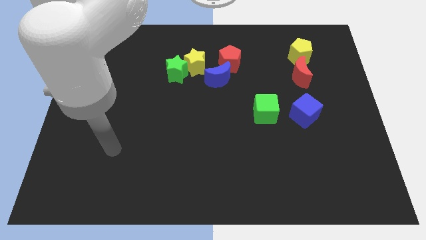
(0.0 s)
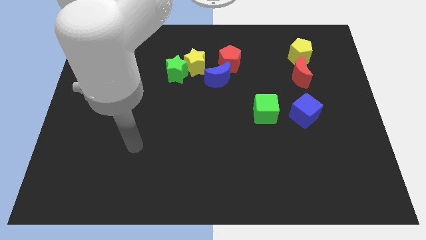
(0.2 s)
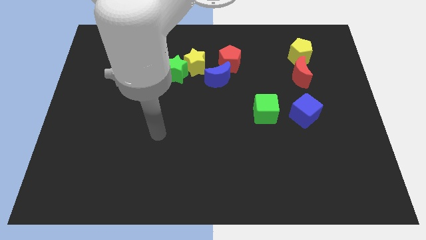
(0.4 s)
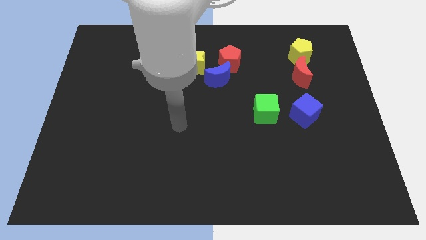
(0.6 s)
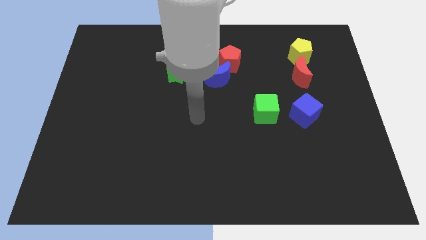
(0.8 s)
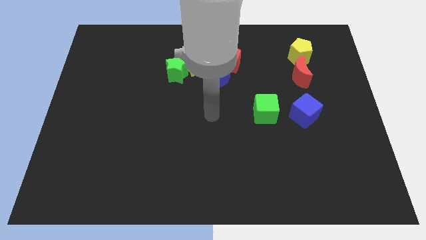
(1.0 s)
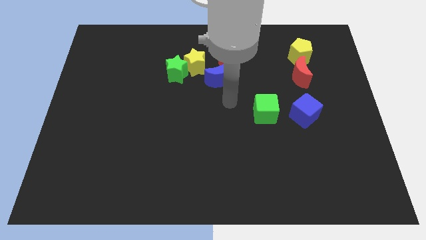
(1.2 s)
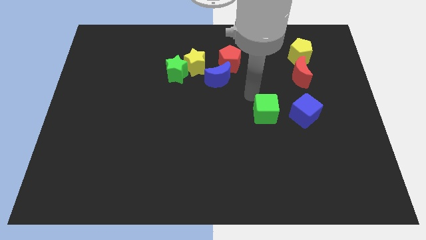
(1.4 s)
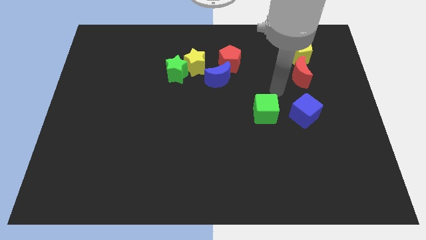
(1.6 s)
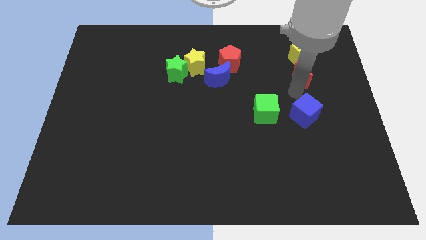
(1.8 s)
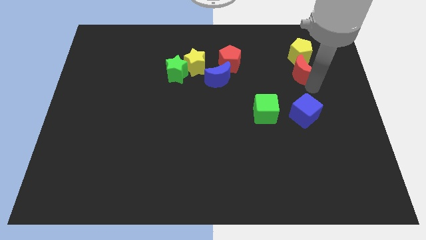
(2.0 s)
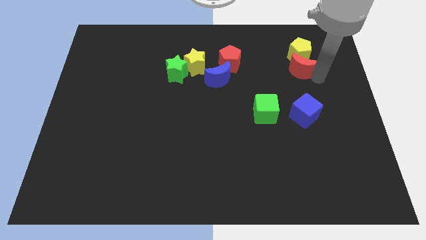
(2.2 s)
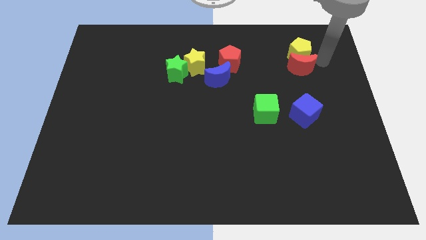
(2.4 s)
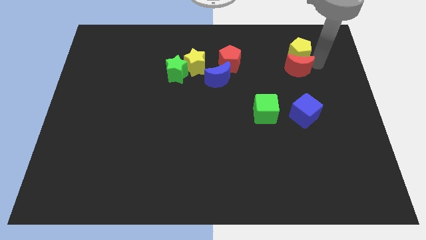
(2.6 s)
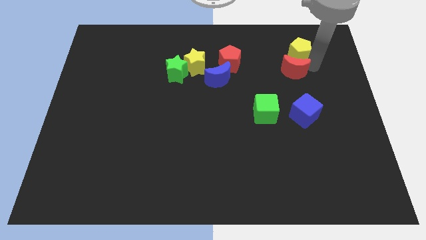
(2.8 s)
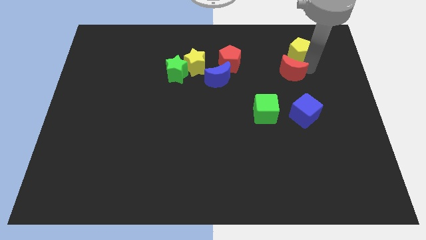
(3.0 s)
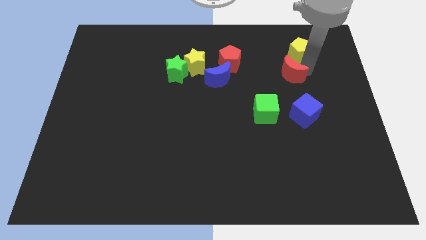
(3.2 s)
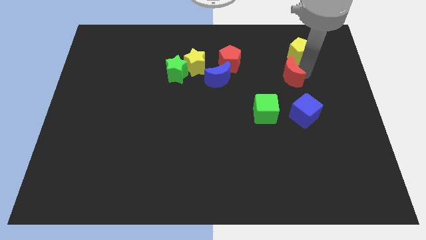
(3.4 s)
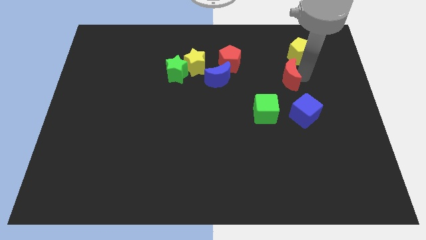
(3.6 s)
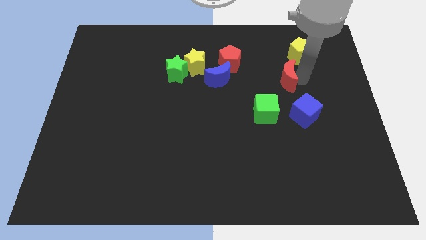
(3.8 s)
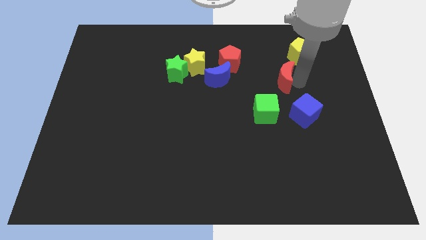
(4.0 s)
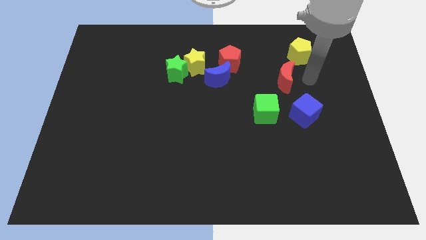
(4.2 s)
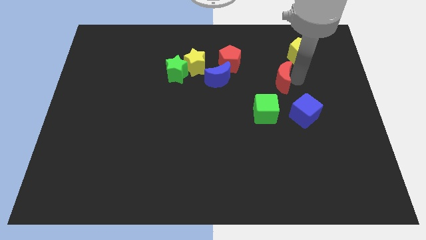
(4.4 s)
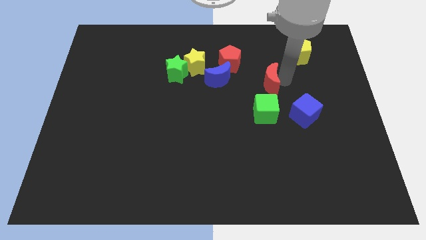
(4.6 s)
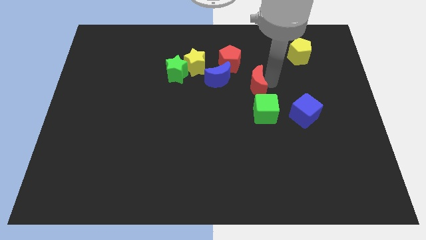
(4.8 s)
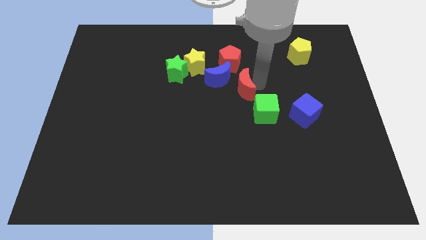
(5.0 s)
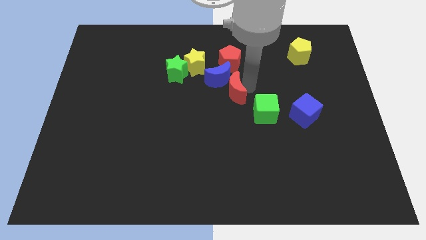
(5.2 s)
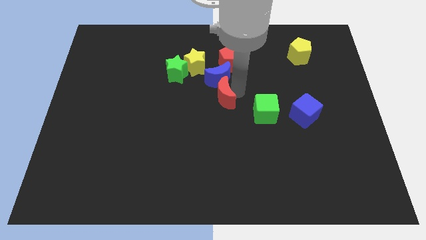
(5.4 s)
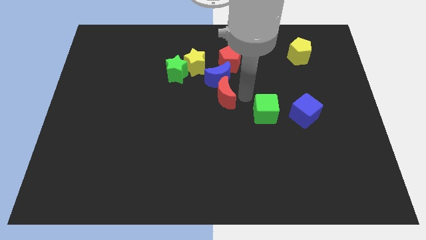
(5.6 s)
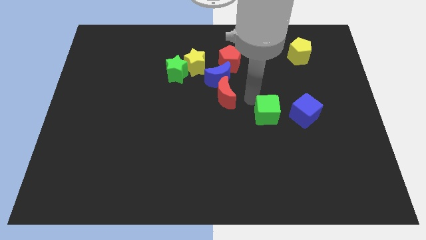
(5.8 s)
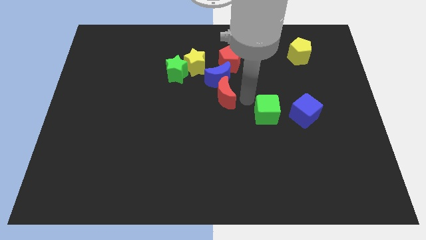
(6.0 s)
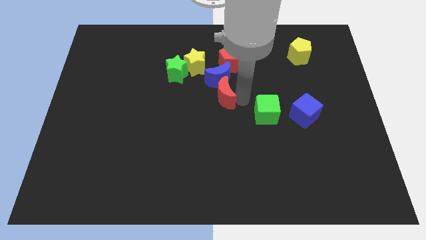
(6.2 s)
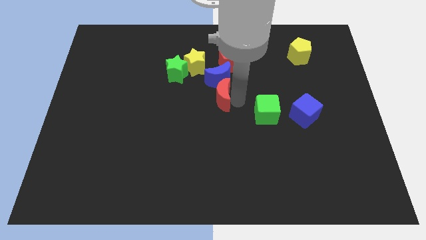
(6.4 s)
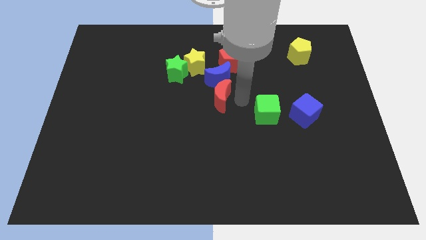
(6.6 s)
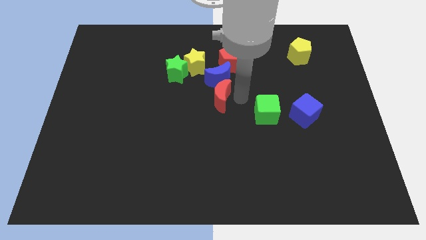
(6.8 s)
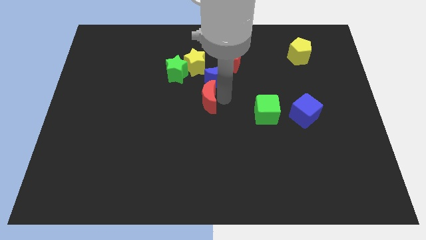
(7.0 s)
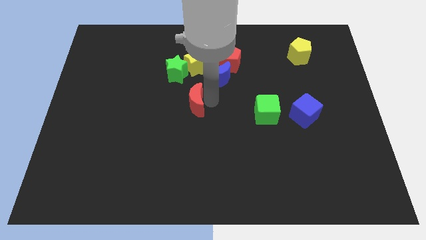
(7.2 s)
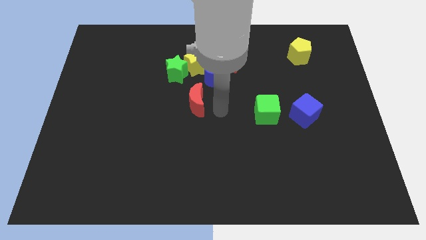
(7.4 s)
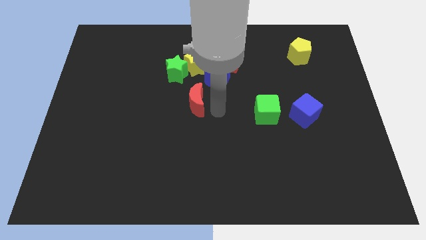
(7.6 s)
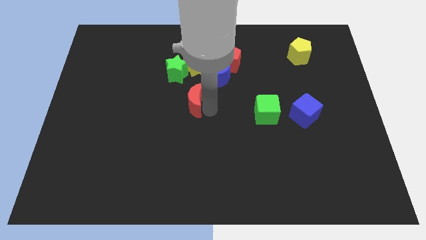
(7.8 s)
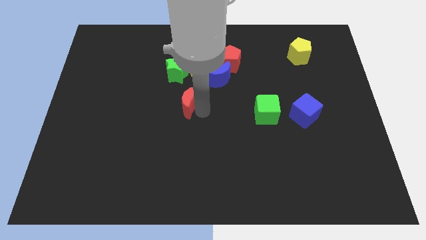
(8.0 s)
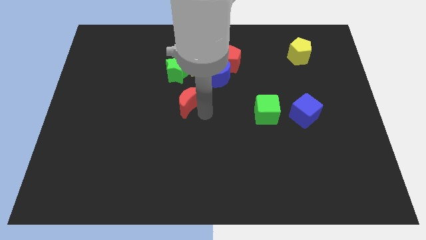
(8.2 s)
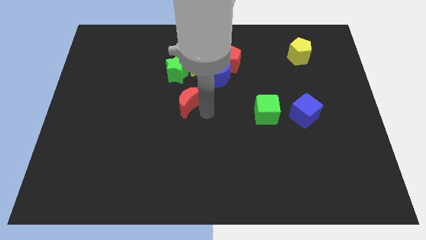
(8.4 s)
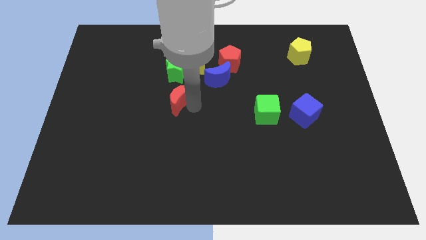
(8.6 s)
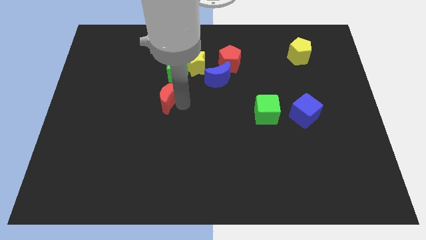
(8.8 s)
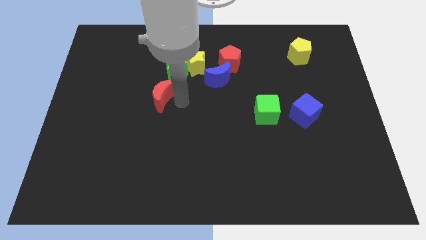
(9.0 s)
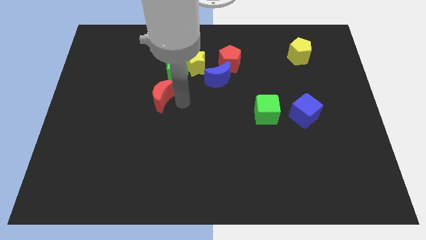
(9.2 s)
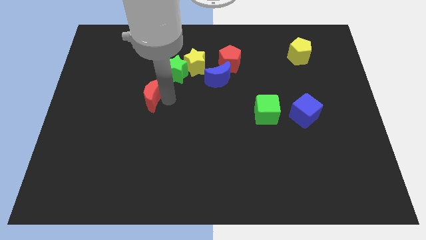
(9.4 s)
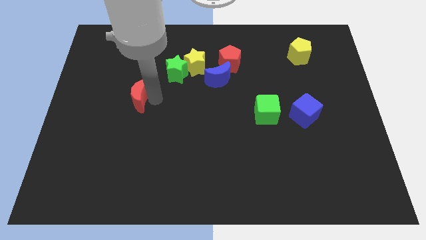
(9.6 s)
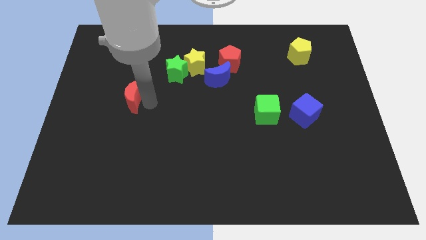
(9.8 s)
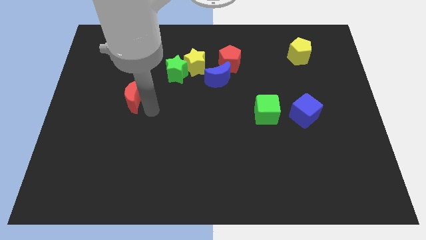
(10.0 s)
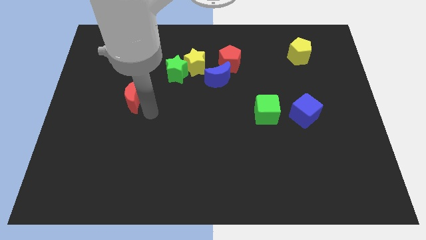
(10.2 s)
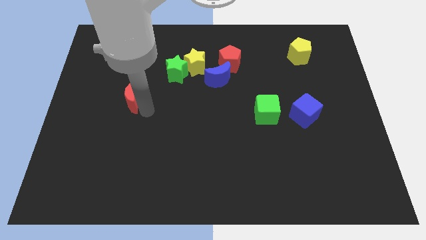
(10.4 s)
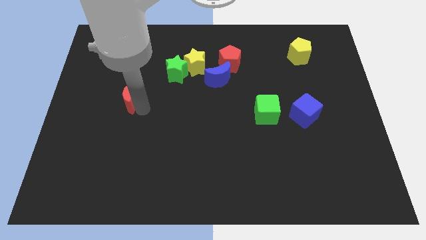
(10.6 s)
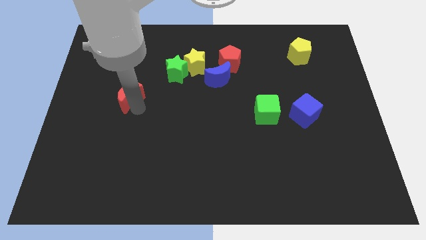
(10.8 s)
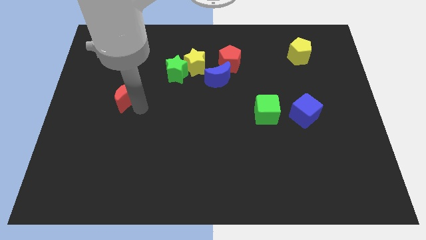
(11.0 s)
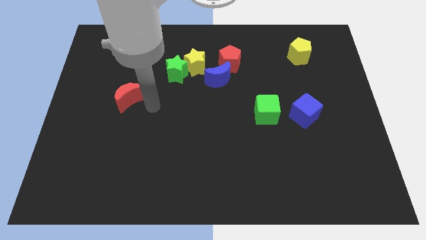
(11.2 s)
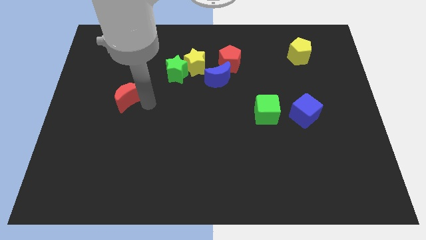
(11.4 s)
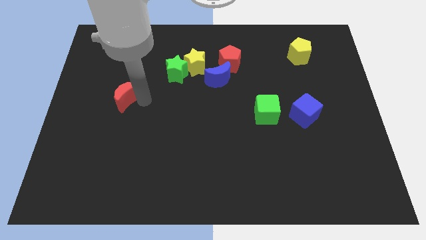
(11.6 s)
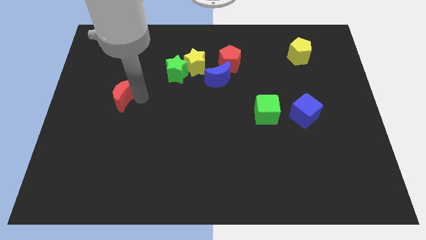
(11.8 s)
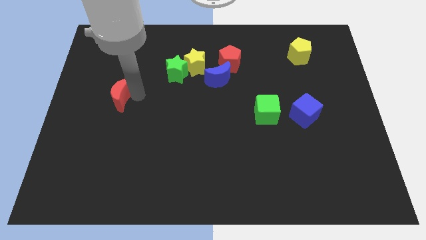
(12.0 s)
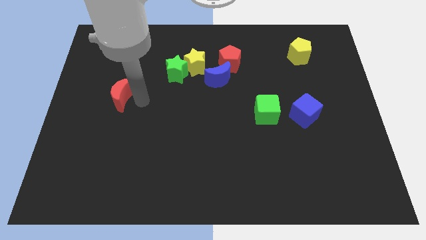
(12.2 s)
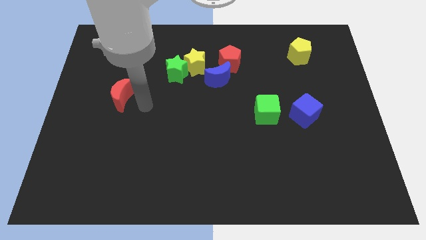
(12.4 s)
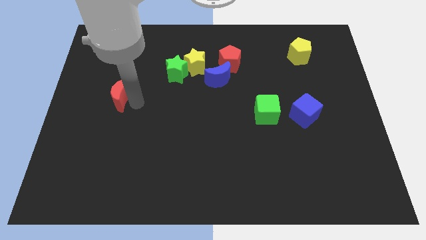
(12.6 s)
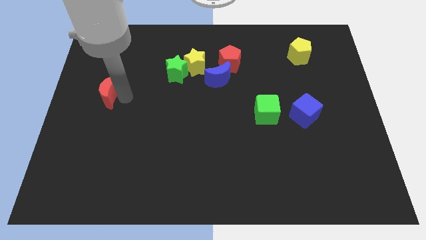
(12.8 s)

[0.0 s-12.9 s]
put the red moon to the center left
